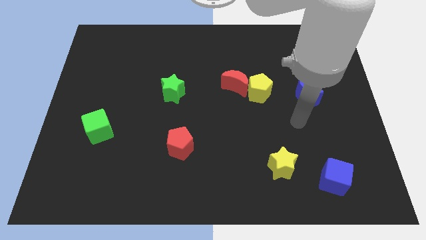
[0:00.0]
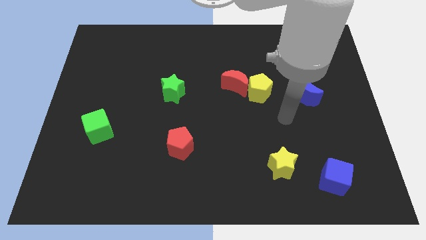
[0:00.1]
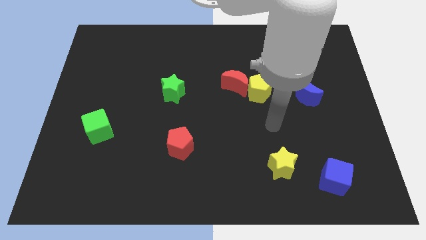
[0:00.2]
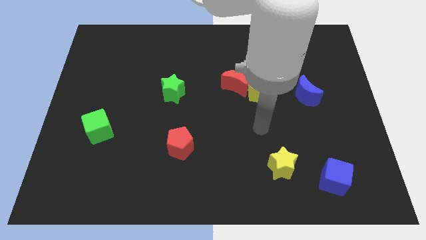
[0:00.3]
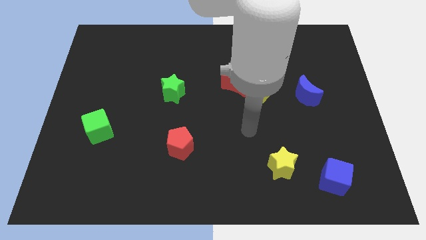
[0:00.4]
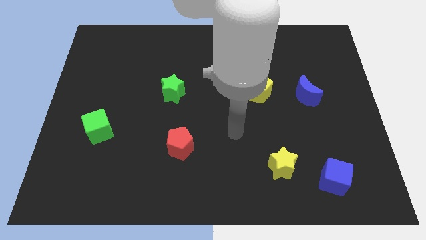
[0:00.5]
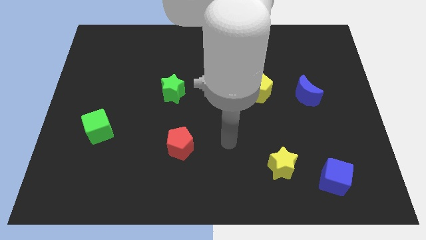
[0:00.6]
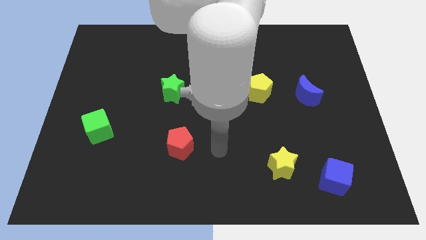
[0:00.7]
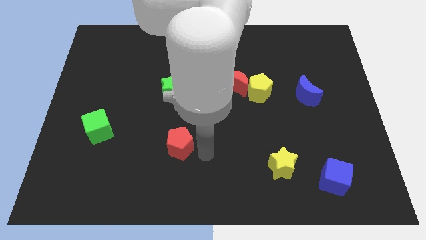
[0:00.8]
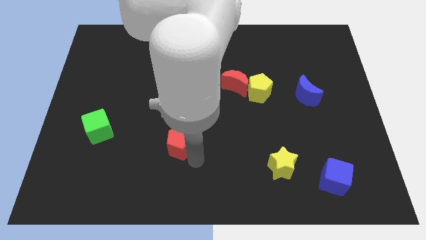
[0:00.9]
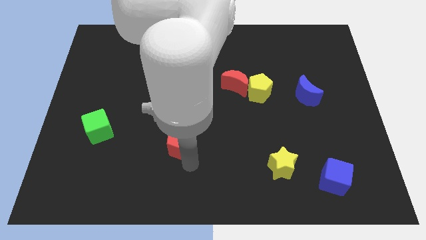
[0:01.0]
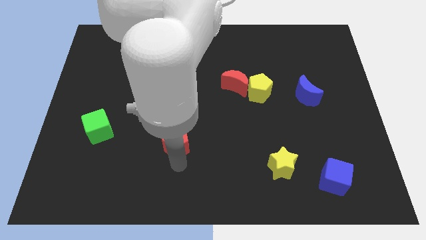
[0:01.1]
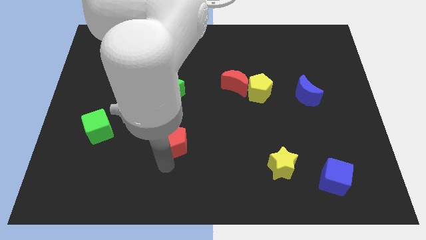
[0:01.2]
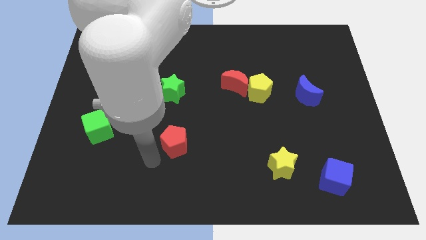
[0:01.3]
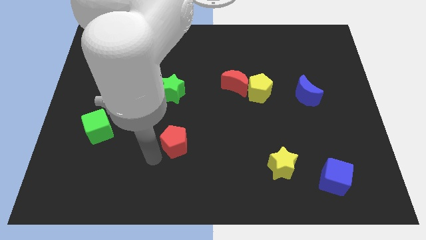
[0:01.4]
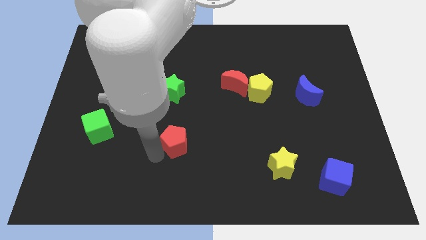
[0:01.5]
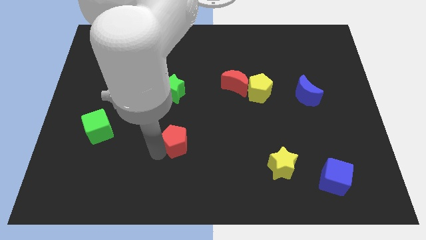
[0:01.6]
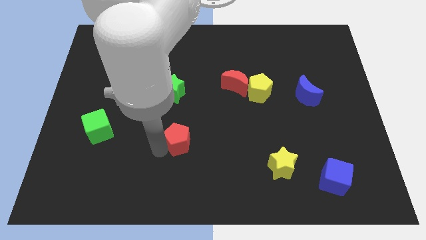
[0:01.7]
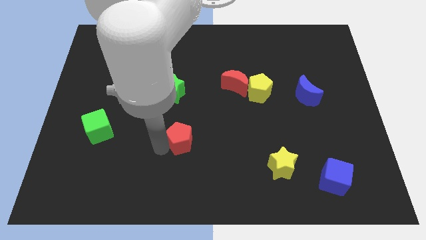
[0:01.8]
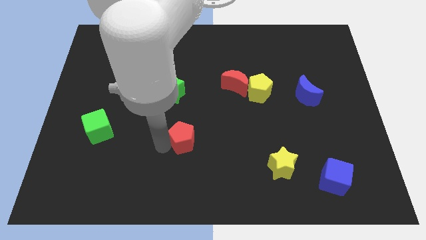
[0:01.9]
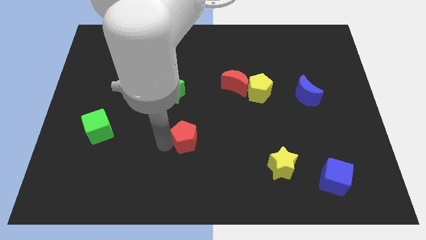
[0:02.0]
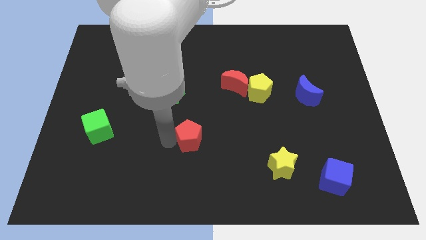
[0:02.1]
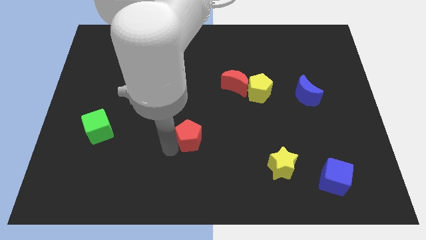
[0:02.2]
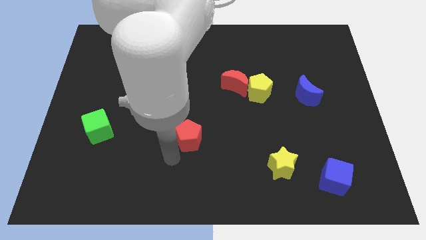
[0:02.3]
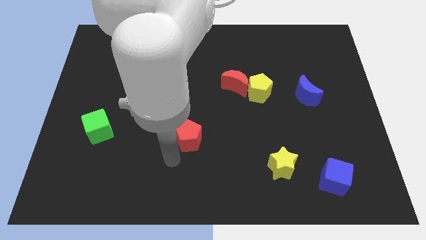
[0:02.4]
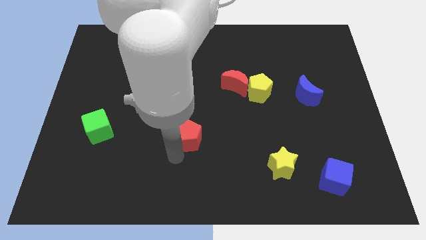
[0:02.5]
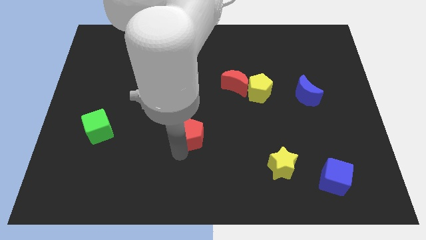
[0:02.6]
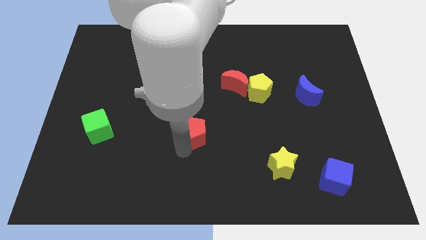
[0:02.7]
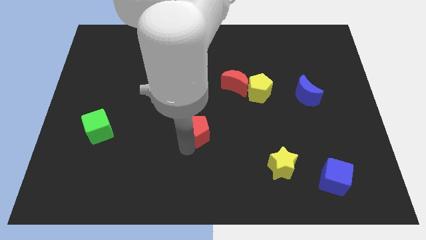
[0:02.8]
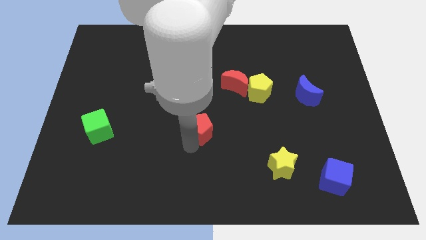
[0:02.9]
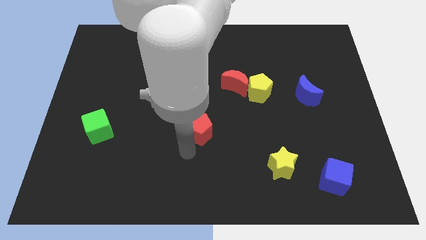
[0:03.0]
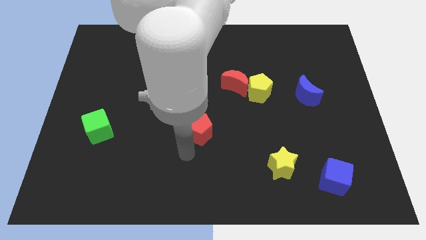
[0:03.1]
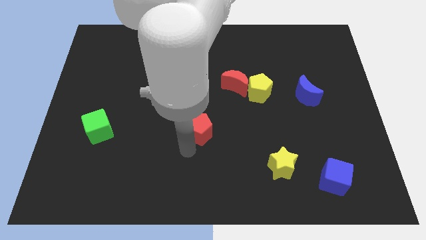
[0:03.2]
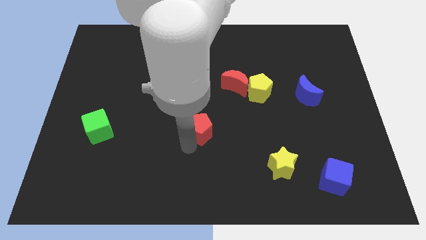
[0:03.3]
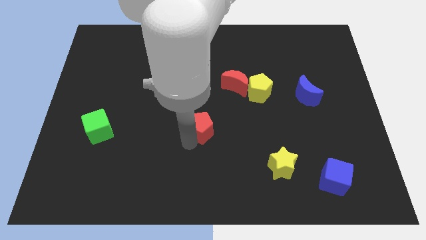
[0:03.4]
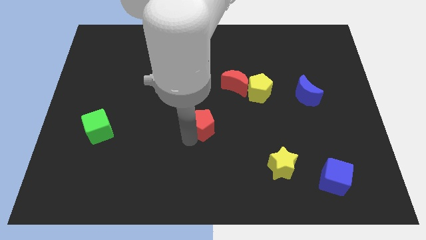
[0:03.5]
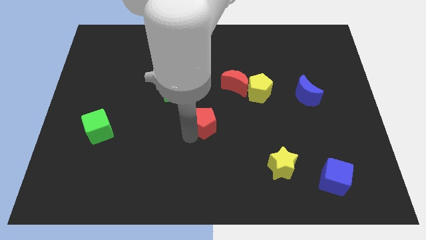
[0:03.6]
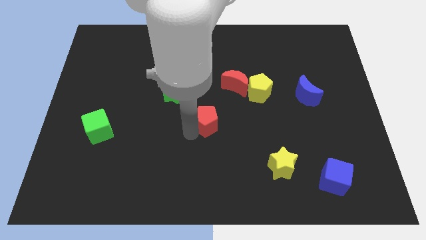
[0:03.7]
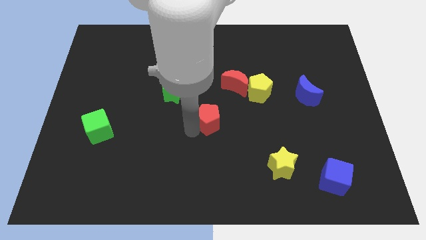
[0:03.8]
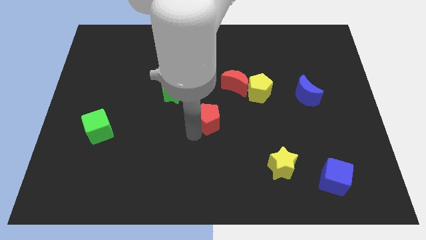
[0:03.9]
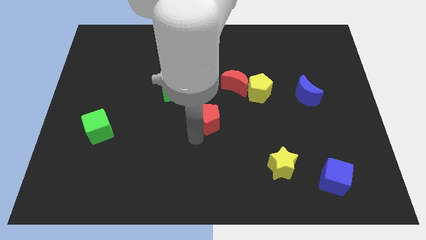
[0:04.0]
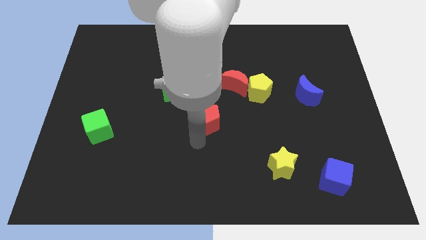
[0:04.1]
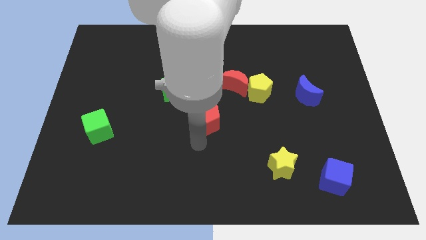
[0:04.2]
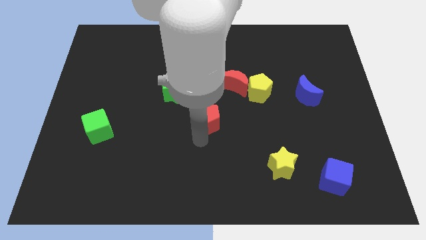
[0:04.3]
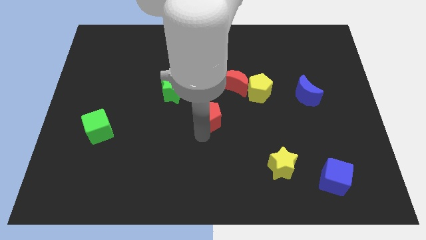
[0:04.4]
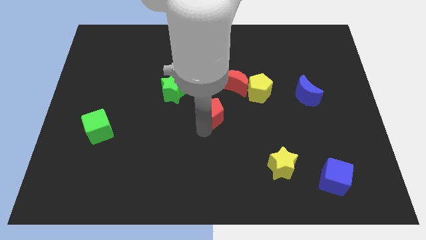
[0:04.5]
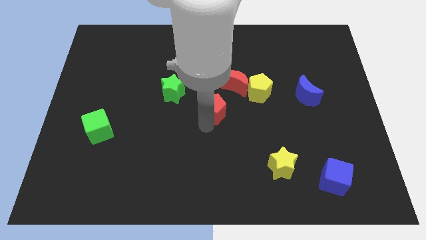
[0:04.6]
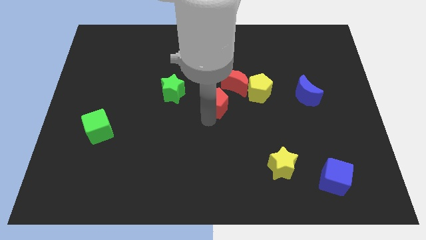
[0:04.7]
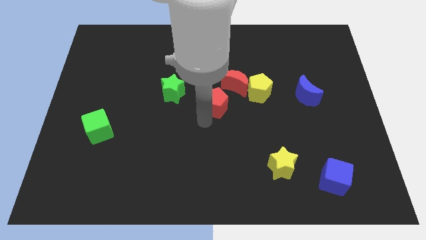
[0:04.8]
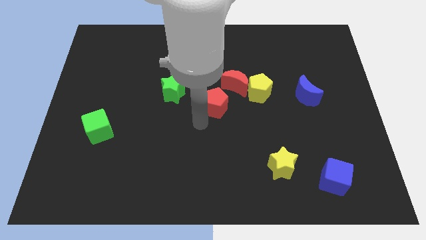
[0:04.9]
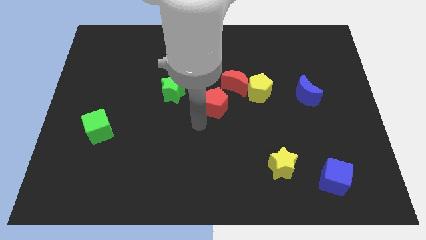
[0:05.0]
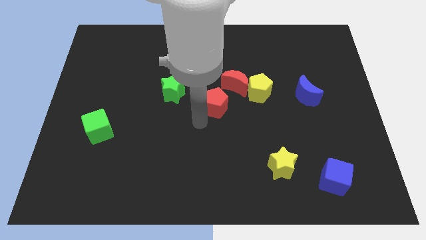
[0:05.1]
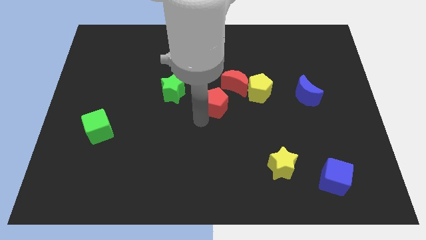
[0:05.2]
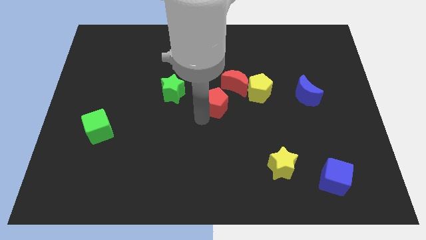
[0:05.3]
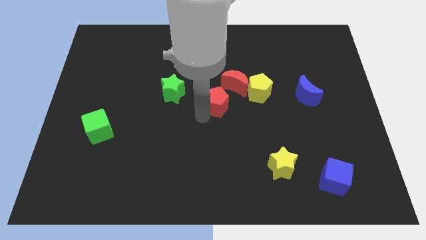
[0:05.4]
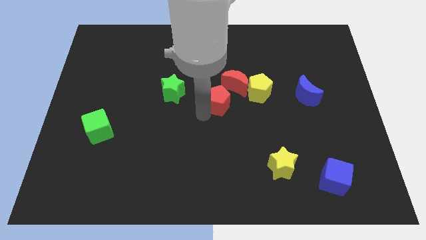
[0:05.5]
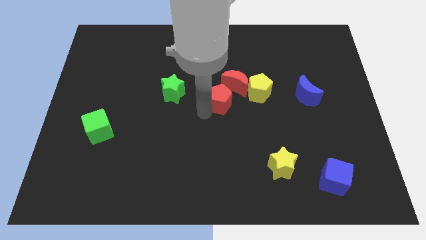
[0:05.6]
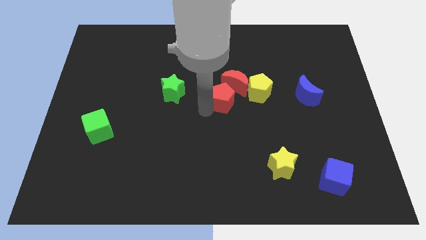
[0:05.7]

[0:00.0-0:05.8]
put the red pentagon next to the red moon
